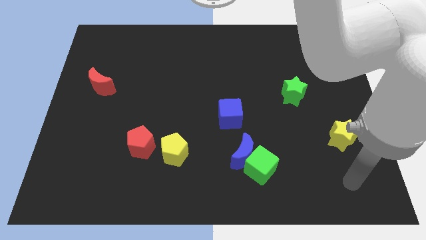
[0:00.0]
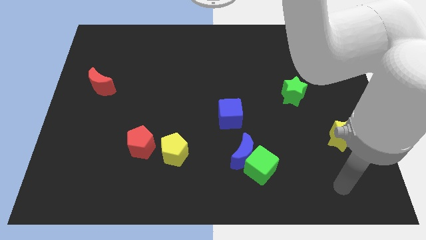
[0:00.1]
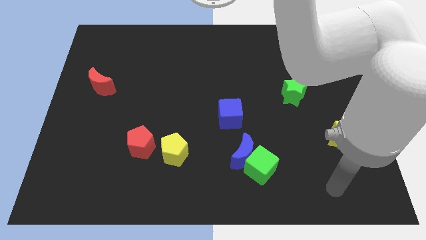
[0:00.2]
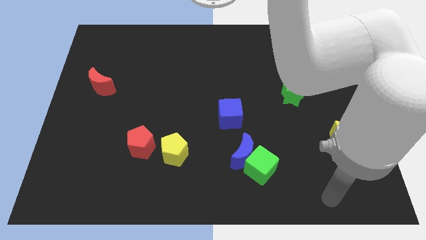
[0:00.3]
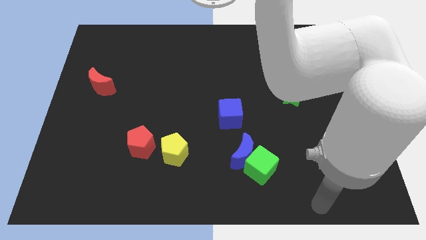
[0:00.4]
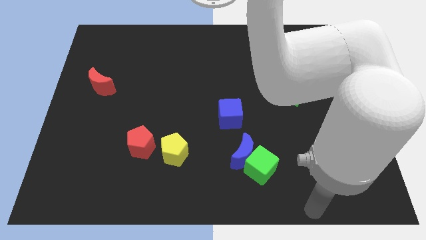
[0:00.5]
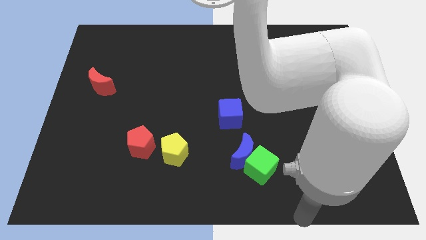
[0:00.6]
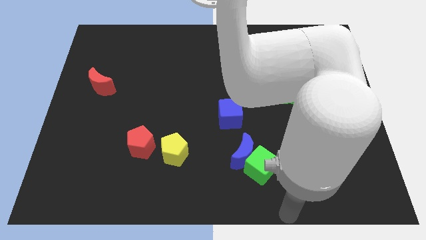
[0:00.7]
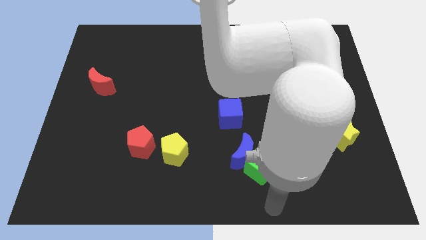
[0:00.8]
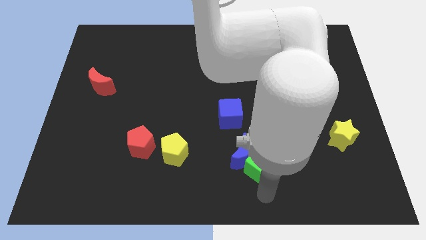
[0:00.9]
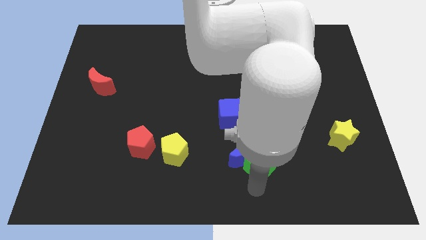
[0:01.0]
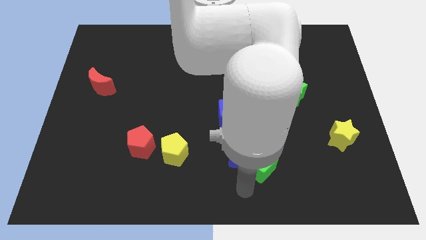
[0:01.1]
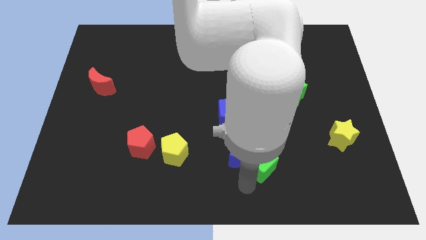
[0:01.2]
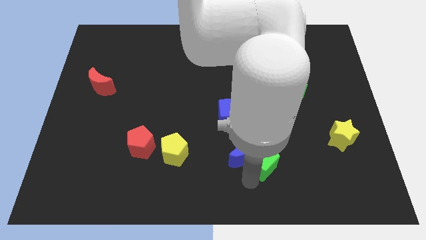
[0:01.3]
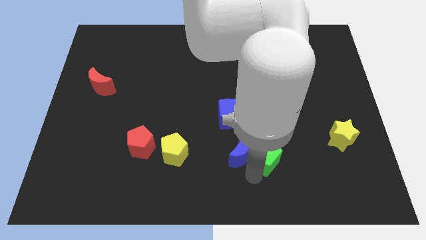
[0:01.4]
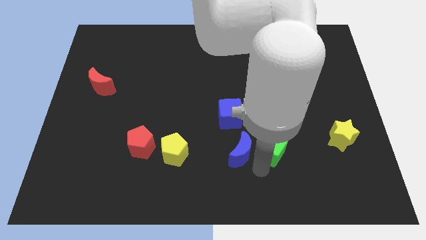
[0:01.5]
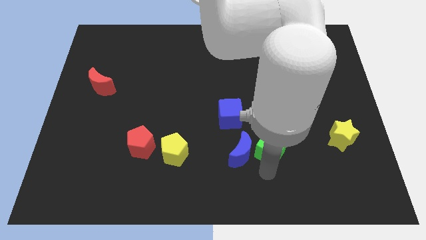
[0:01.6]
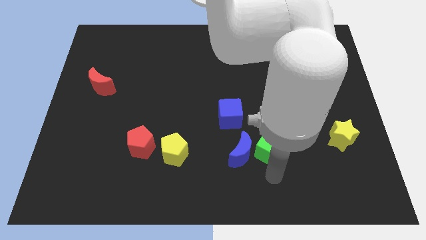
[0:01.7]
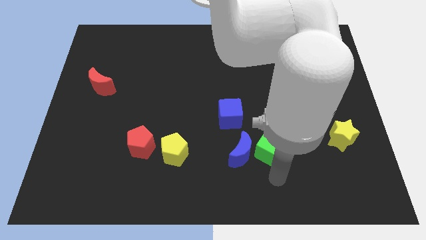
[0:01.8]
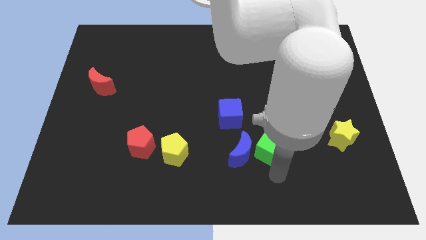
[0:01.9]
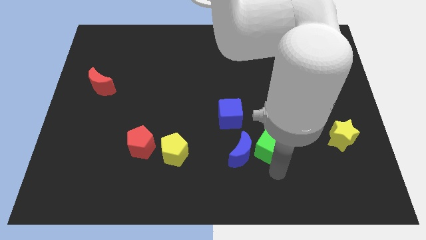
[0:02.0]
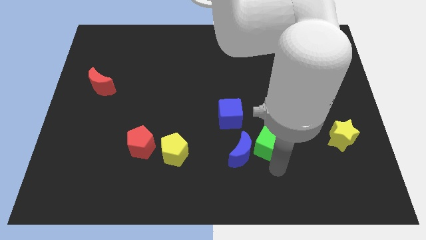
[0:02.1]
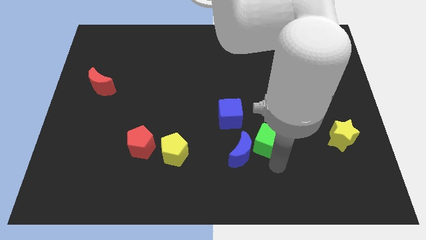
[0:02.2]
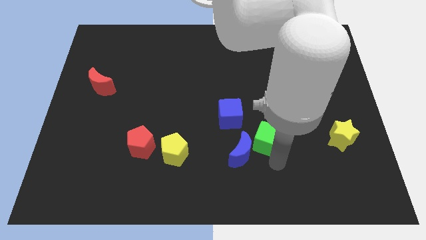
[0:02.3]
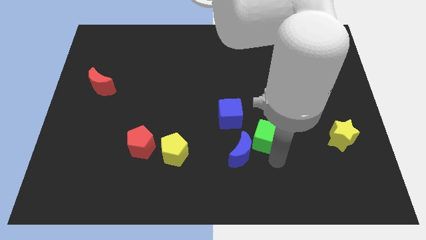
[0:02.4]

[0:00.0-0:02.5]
slightly move the green cube up

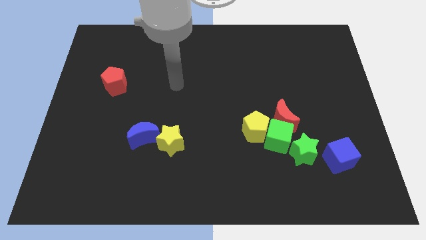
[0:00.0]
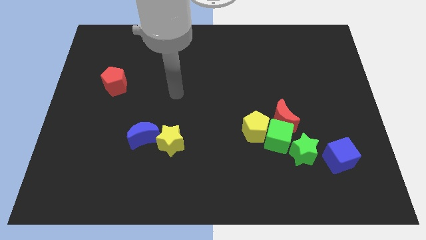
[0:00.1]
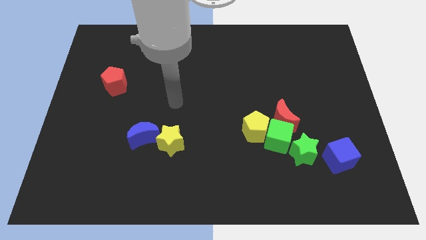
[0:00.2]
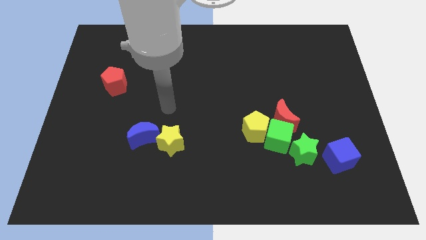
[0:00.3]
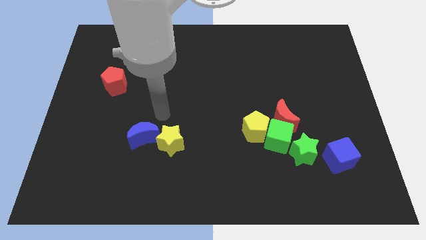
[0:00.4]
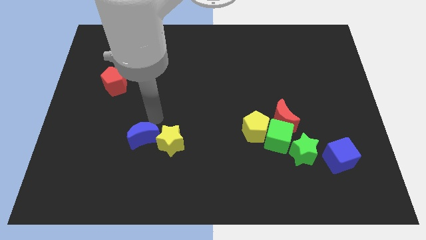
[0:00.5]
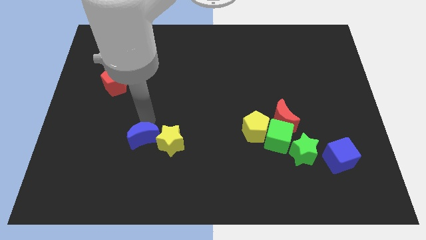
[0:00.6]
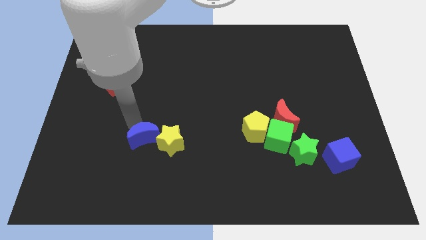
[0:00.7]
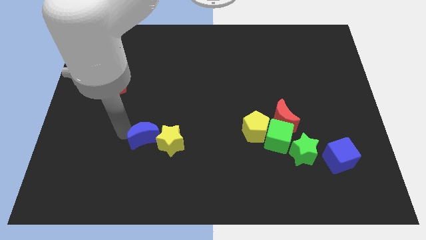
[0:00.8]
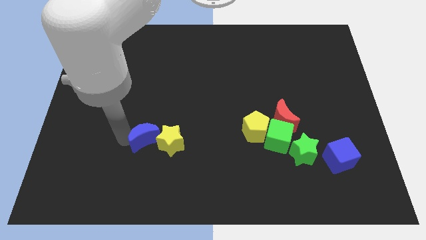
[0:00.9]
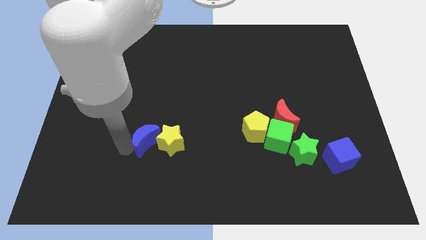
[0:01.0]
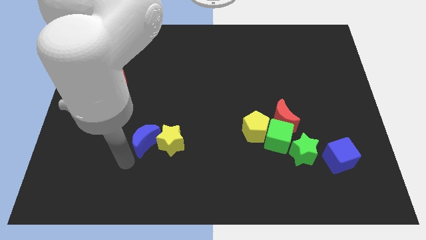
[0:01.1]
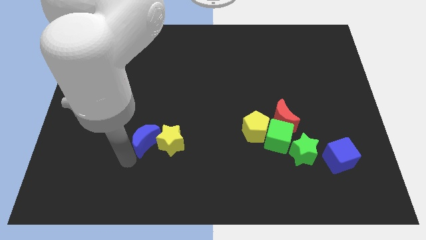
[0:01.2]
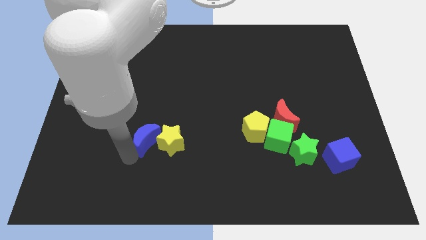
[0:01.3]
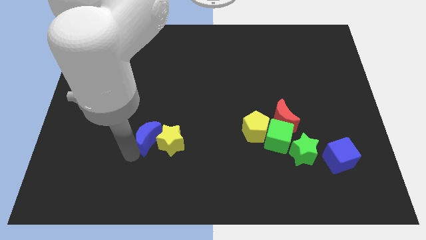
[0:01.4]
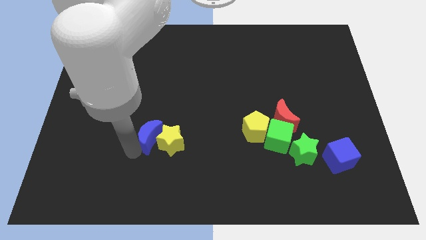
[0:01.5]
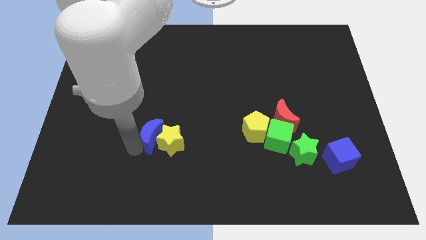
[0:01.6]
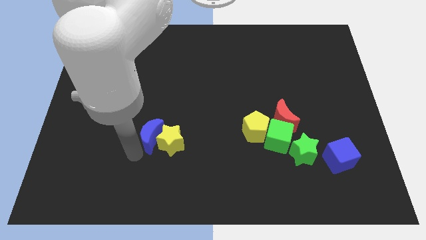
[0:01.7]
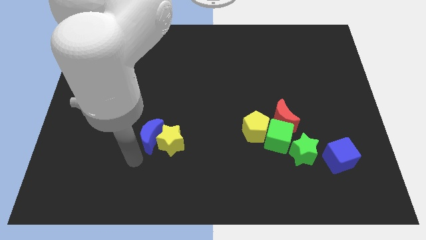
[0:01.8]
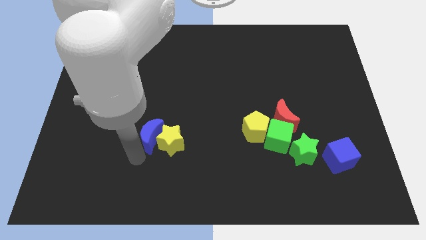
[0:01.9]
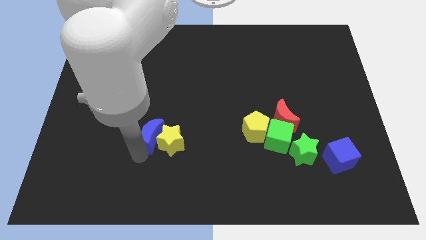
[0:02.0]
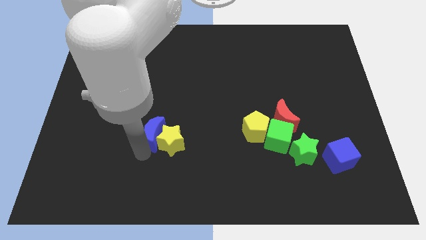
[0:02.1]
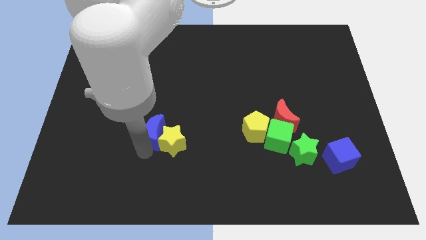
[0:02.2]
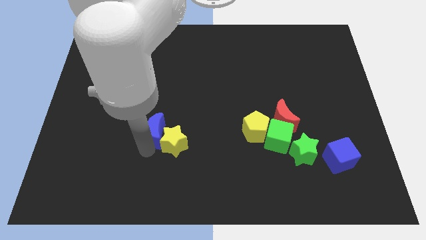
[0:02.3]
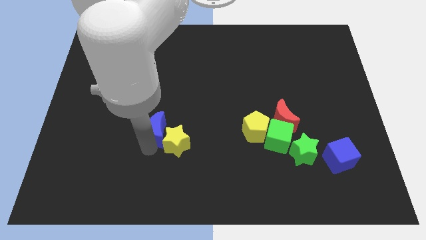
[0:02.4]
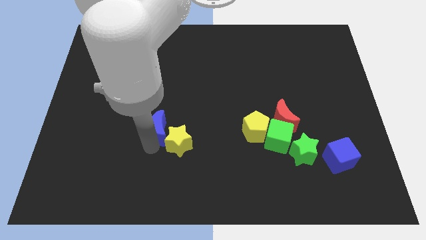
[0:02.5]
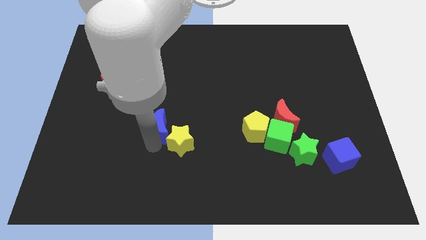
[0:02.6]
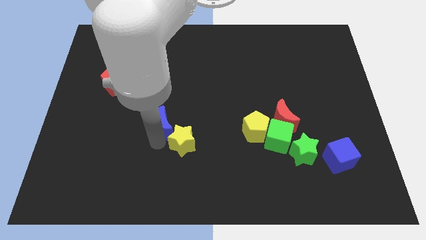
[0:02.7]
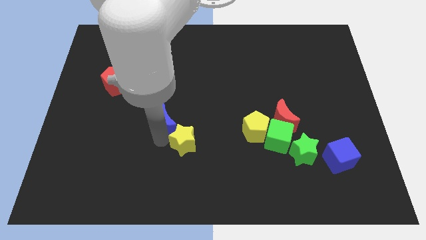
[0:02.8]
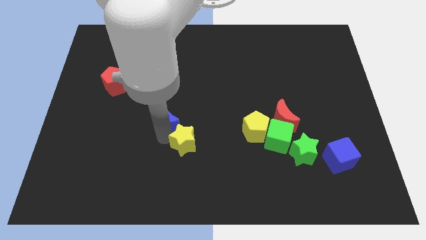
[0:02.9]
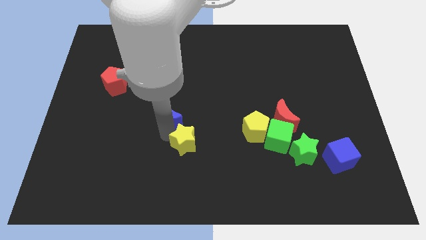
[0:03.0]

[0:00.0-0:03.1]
slide the blue moon slightly upwards and then right

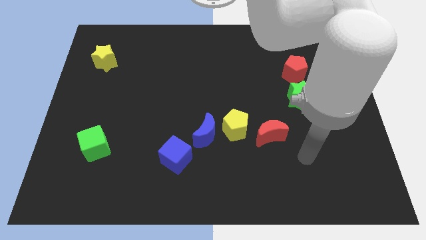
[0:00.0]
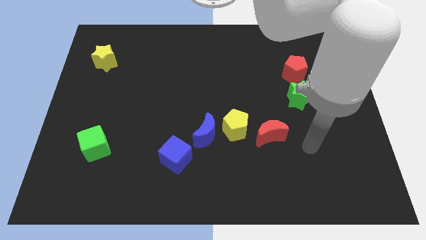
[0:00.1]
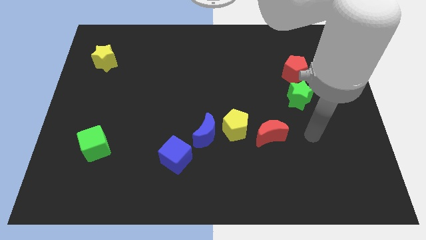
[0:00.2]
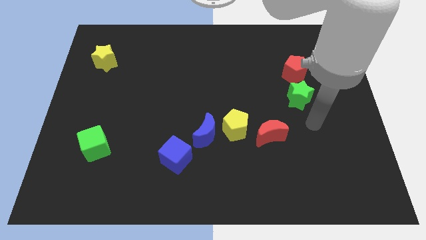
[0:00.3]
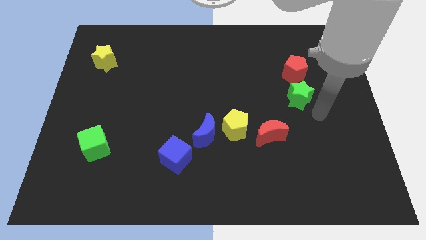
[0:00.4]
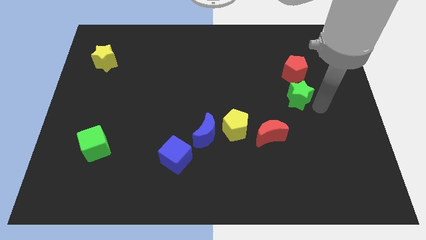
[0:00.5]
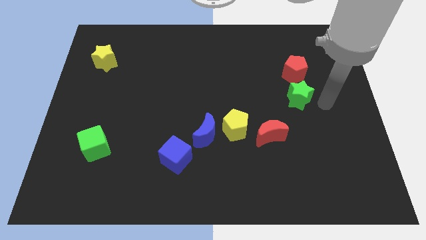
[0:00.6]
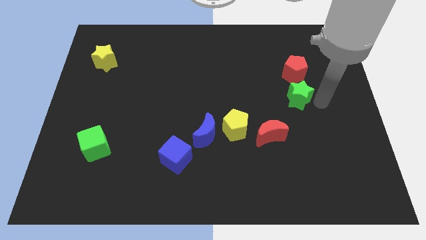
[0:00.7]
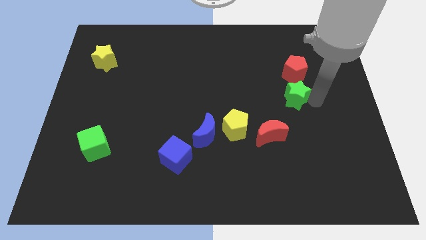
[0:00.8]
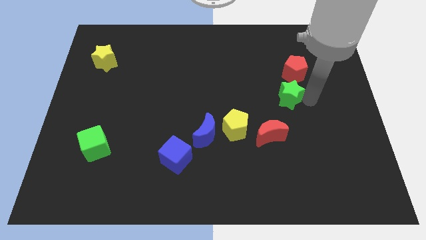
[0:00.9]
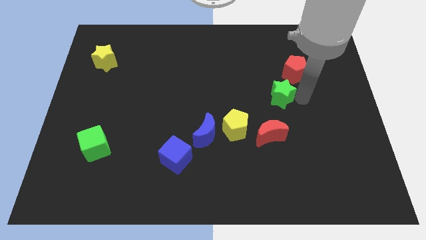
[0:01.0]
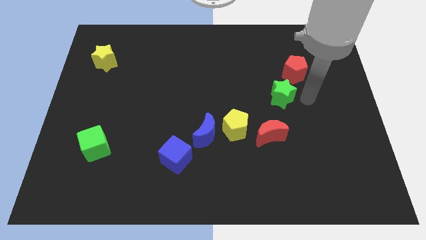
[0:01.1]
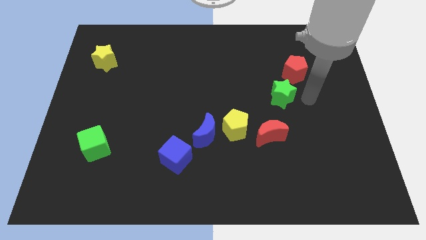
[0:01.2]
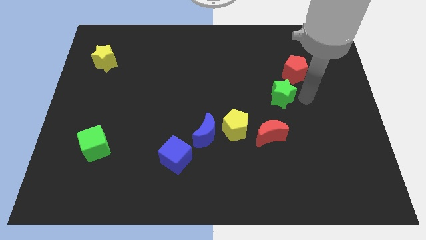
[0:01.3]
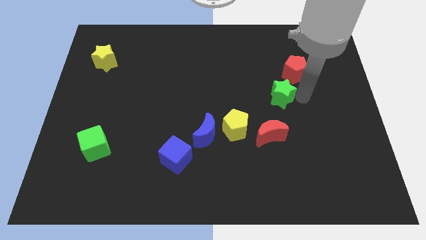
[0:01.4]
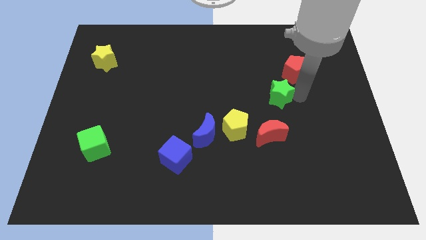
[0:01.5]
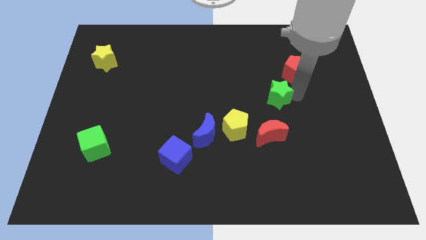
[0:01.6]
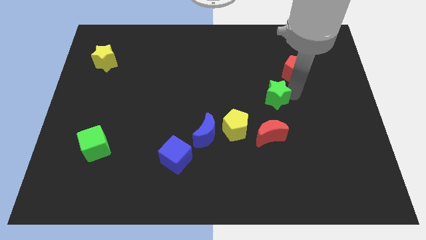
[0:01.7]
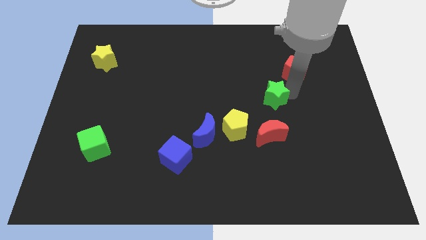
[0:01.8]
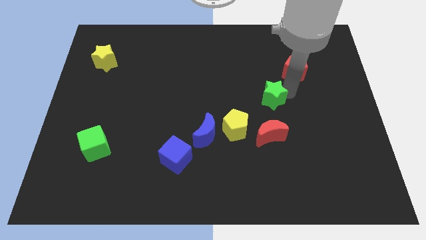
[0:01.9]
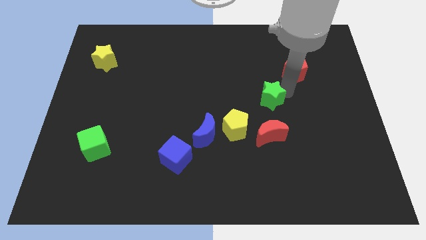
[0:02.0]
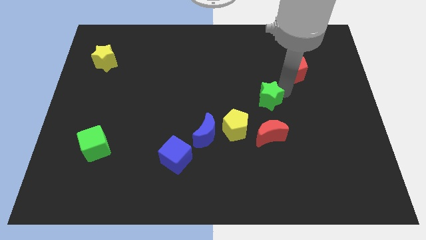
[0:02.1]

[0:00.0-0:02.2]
push the green star a little to the left

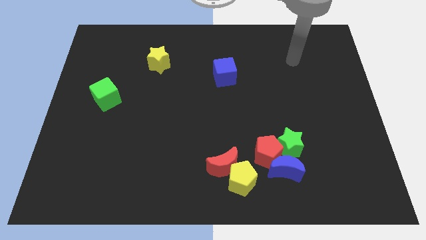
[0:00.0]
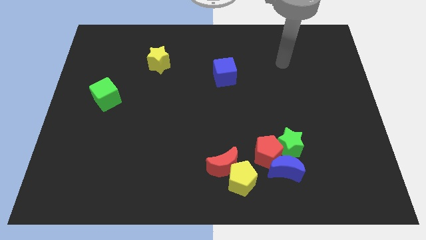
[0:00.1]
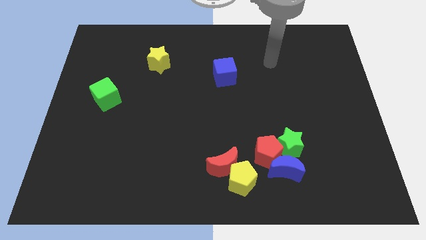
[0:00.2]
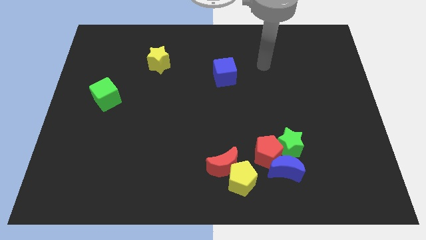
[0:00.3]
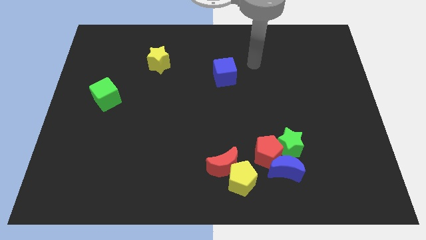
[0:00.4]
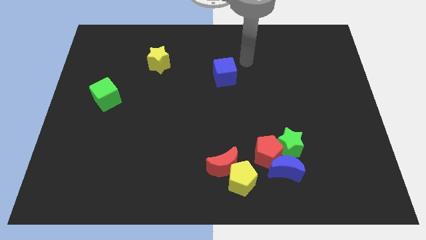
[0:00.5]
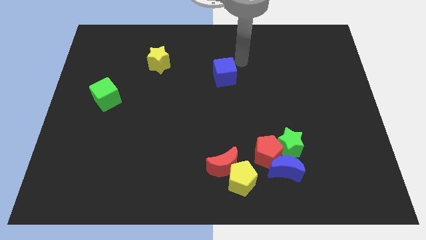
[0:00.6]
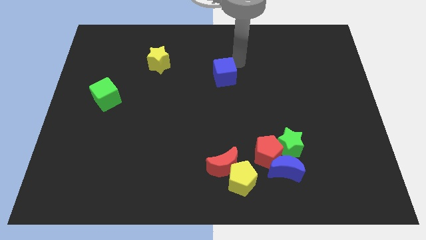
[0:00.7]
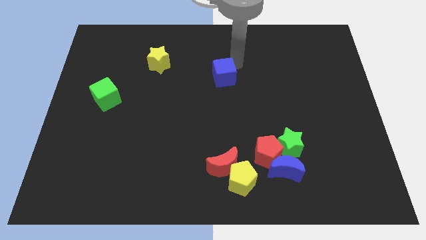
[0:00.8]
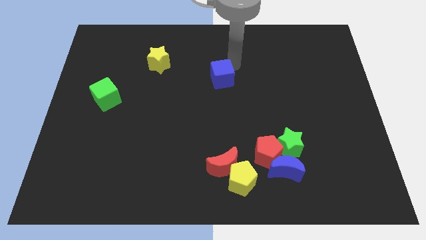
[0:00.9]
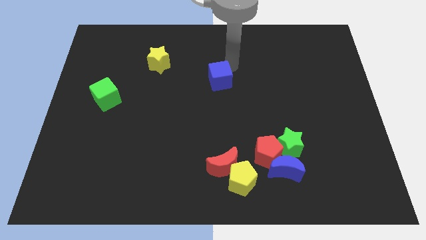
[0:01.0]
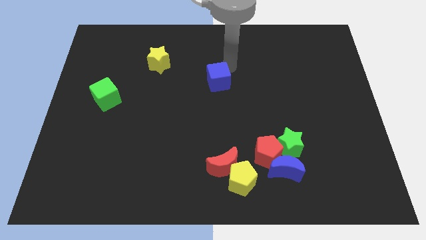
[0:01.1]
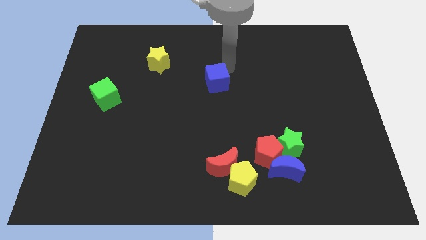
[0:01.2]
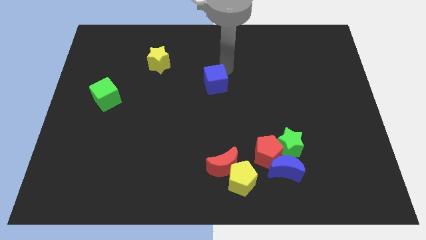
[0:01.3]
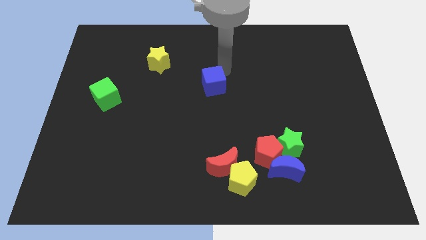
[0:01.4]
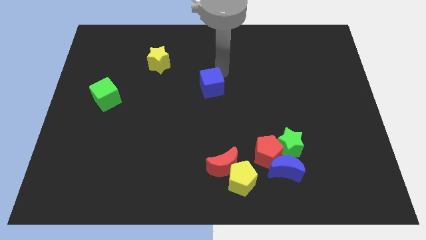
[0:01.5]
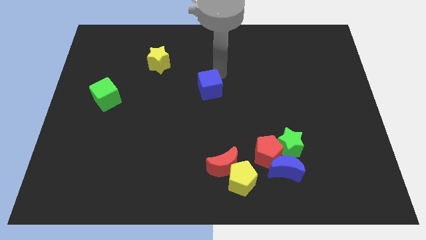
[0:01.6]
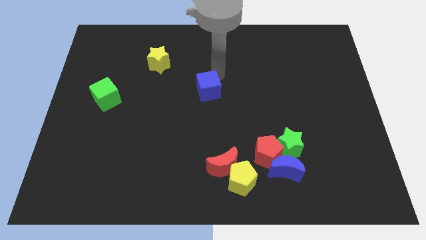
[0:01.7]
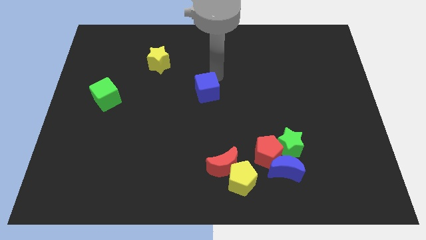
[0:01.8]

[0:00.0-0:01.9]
move the blue cube down and to the left diagonally a little bit
